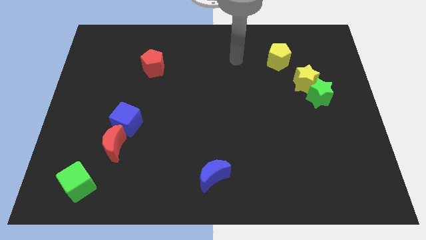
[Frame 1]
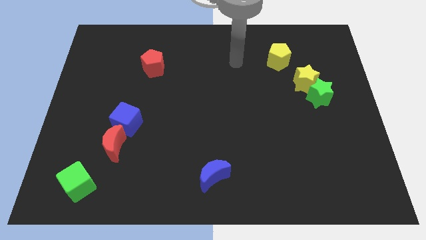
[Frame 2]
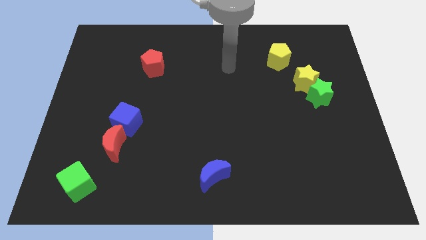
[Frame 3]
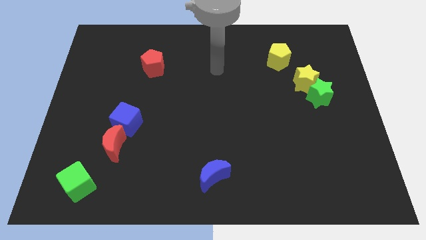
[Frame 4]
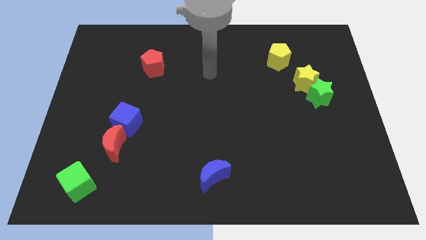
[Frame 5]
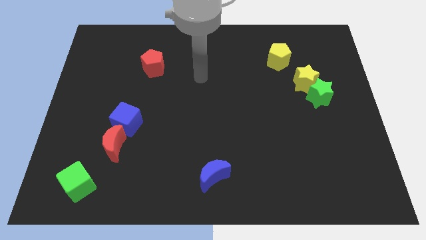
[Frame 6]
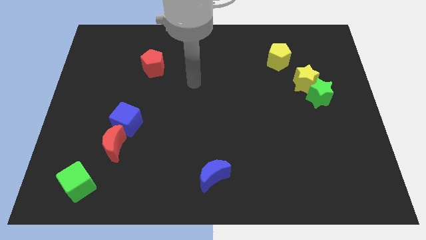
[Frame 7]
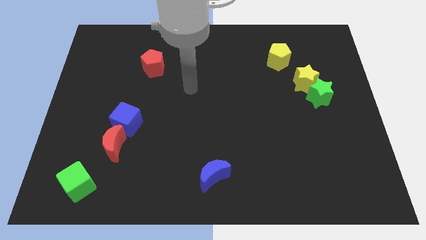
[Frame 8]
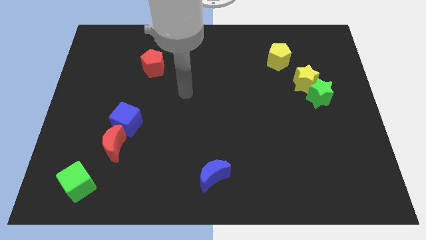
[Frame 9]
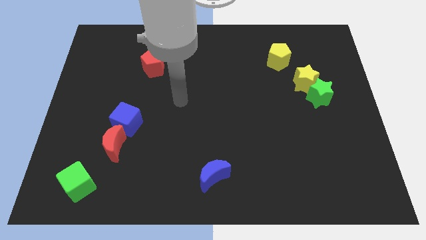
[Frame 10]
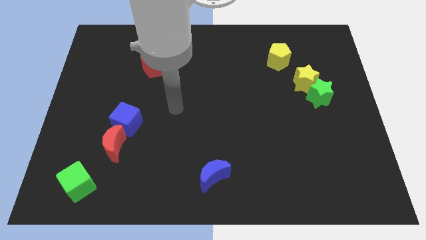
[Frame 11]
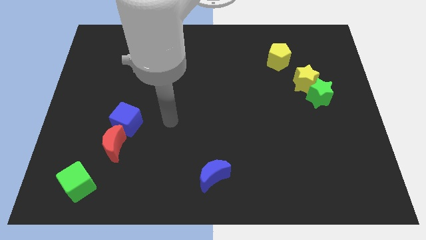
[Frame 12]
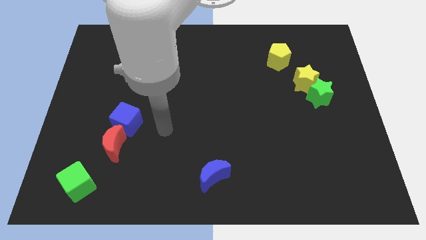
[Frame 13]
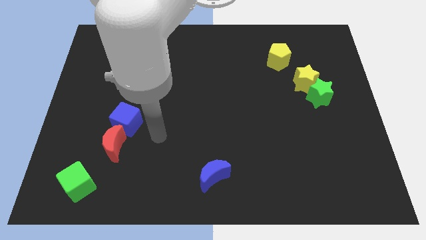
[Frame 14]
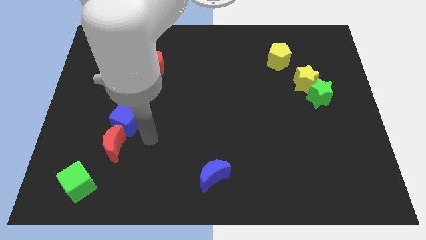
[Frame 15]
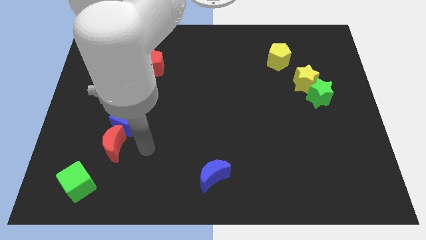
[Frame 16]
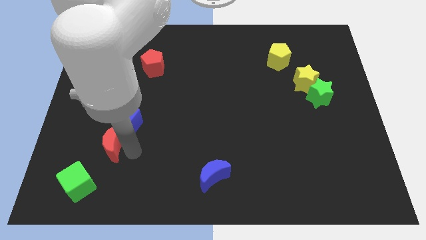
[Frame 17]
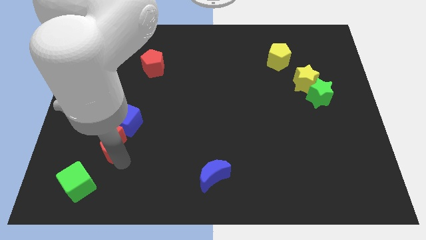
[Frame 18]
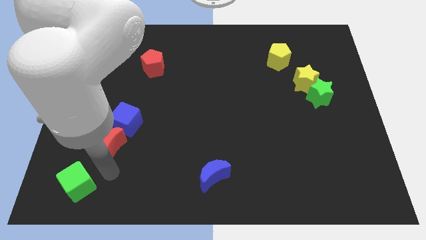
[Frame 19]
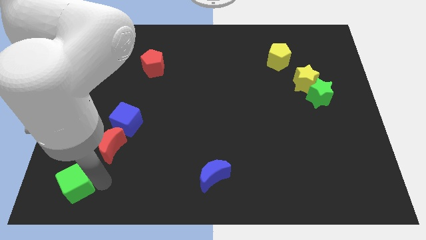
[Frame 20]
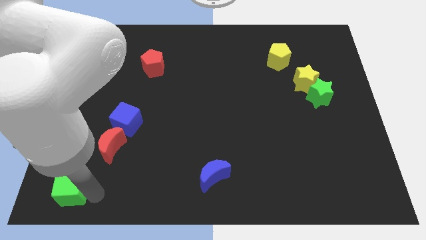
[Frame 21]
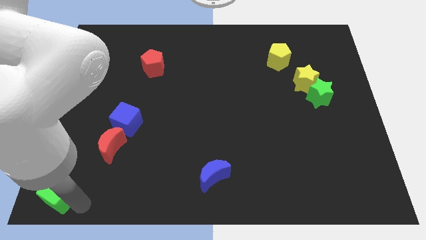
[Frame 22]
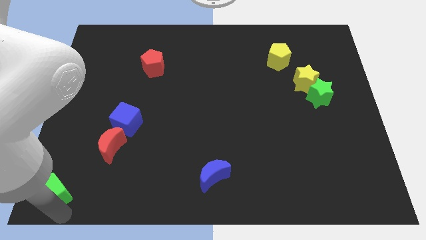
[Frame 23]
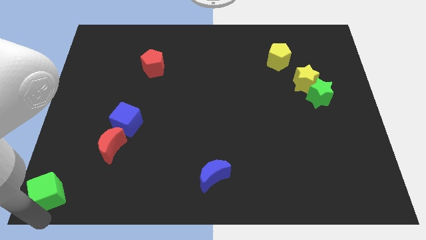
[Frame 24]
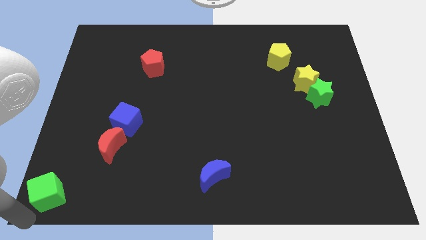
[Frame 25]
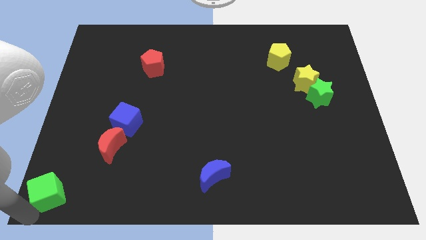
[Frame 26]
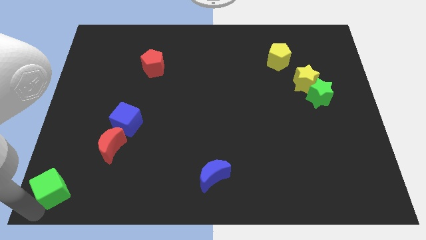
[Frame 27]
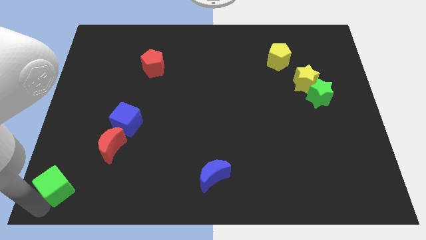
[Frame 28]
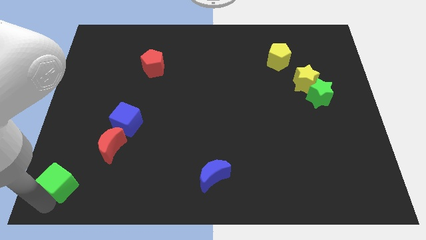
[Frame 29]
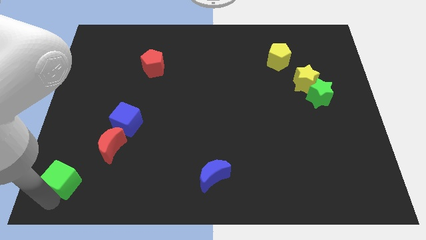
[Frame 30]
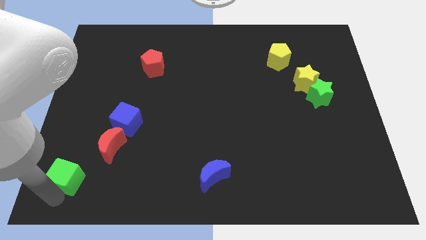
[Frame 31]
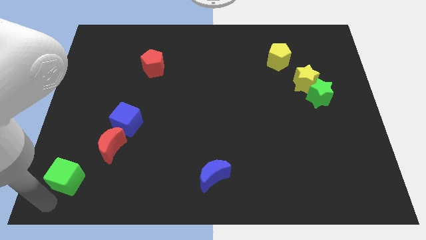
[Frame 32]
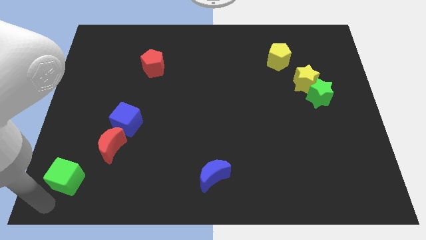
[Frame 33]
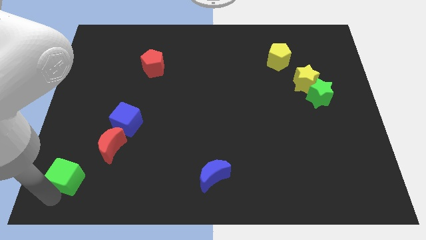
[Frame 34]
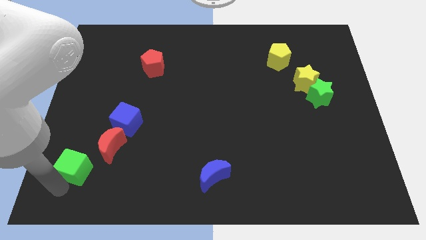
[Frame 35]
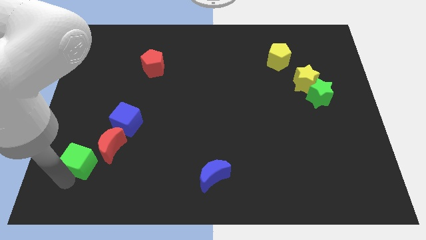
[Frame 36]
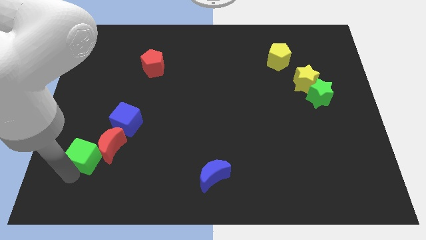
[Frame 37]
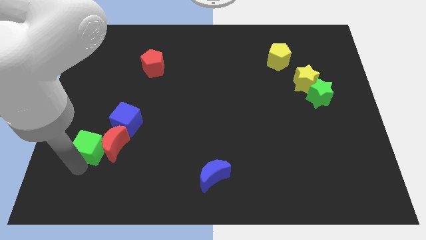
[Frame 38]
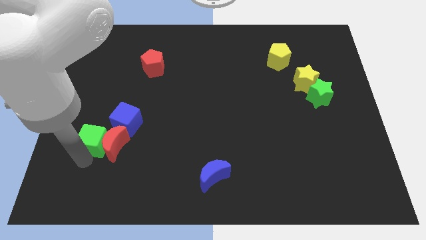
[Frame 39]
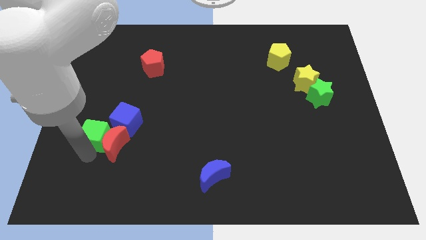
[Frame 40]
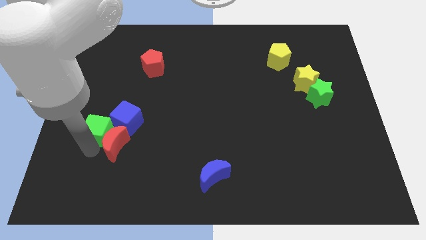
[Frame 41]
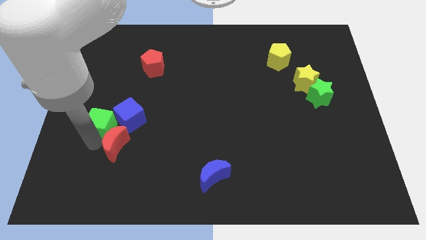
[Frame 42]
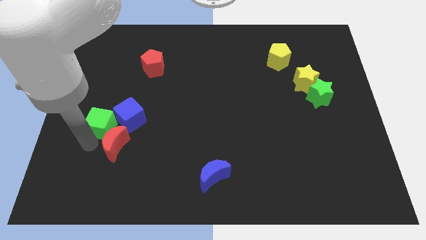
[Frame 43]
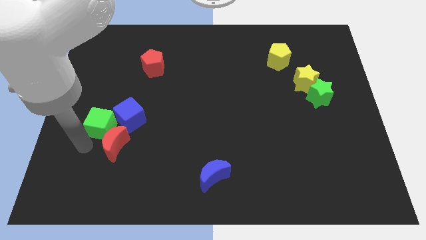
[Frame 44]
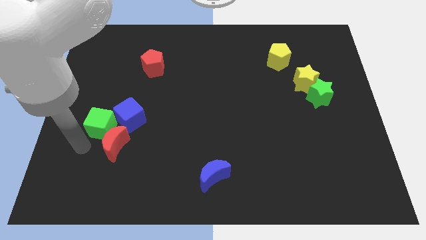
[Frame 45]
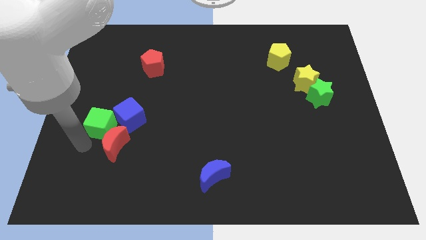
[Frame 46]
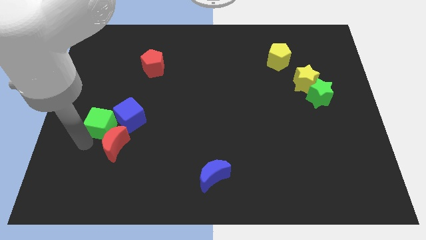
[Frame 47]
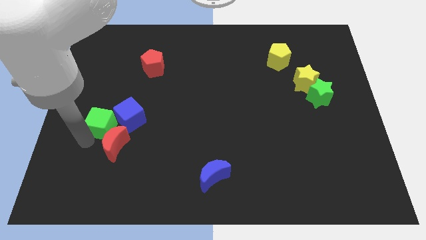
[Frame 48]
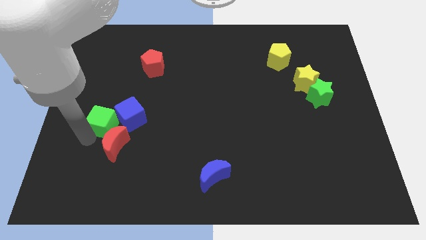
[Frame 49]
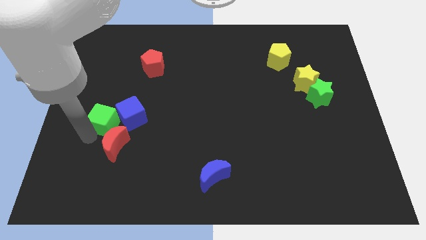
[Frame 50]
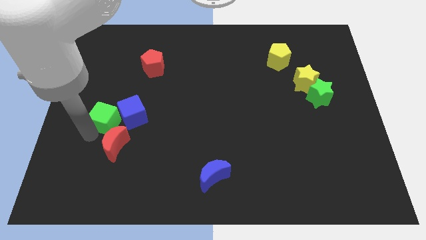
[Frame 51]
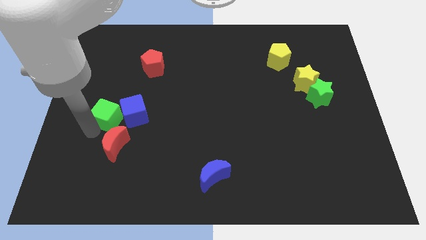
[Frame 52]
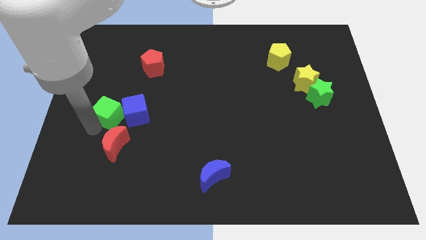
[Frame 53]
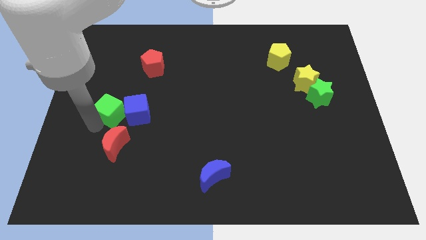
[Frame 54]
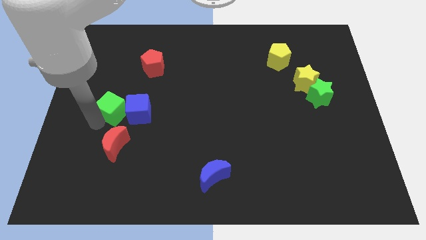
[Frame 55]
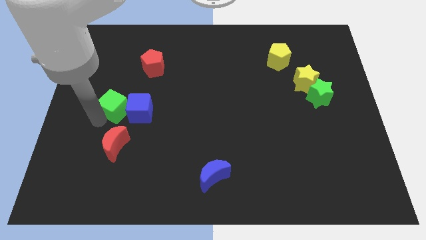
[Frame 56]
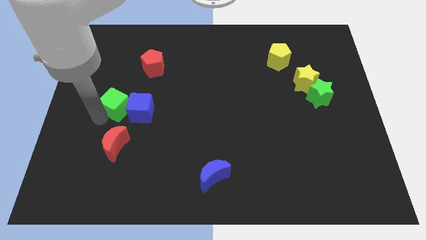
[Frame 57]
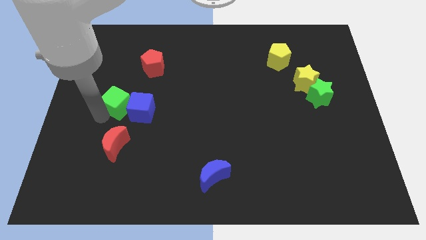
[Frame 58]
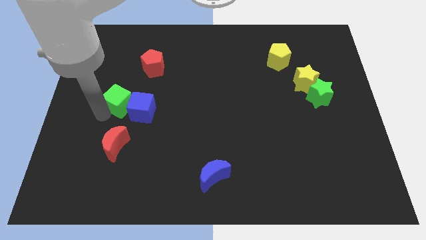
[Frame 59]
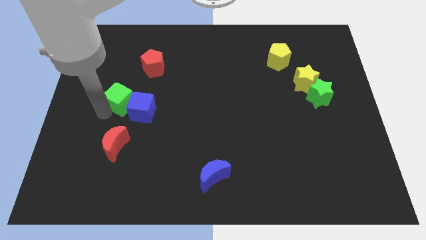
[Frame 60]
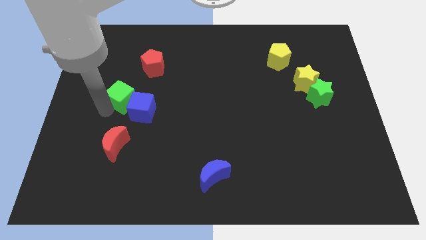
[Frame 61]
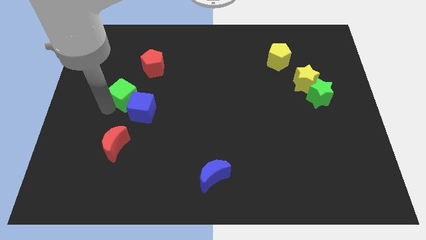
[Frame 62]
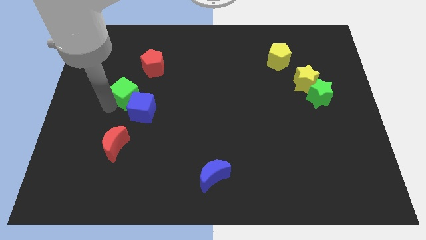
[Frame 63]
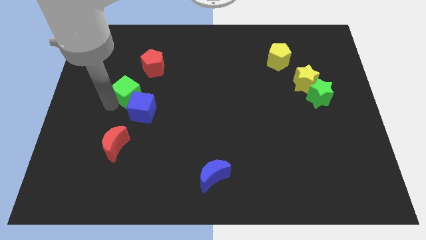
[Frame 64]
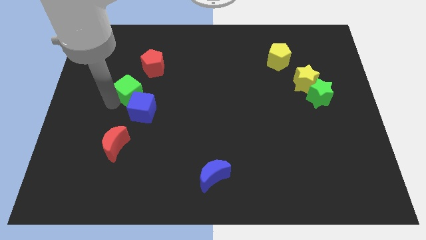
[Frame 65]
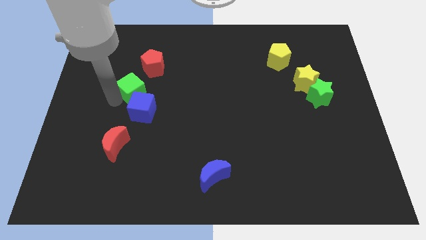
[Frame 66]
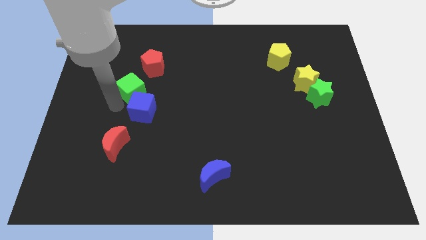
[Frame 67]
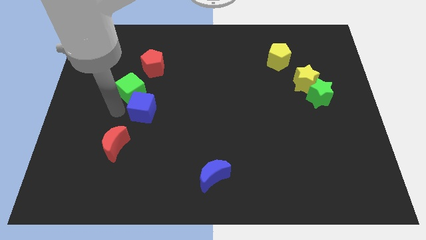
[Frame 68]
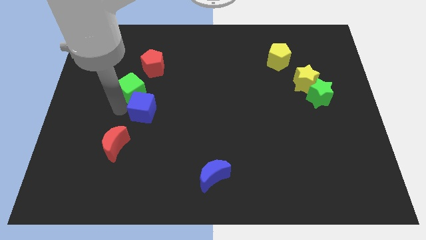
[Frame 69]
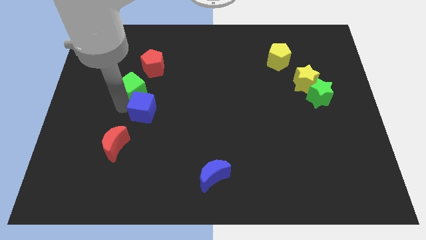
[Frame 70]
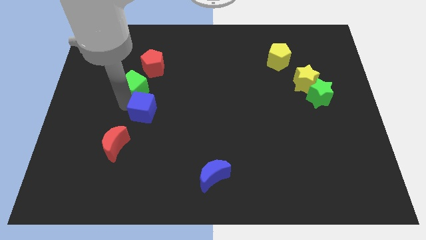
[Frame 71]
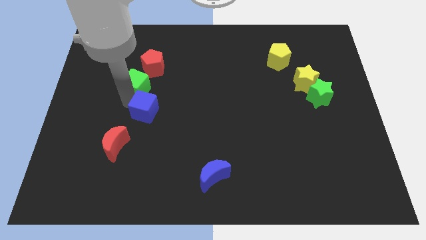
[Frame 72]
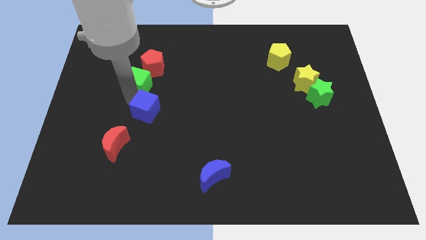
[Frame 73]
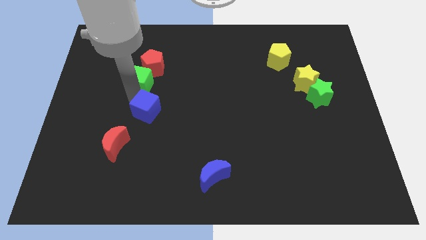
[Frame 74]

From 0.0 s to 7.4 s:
push the green cube next to the red pentagon
